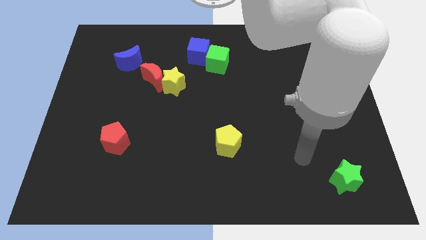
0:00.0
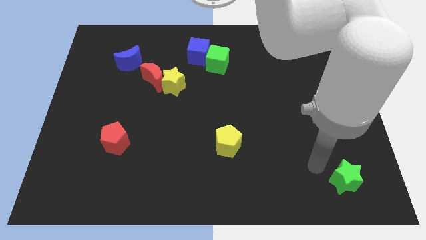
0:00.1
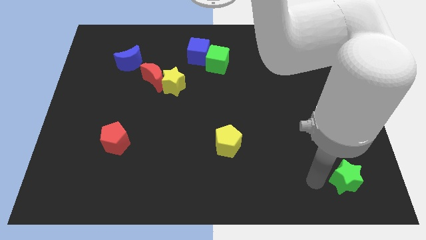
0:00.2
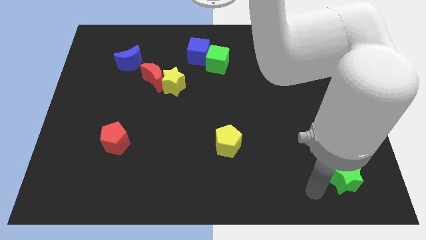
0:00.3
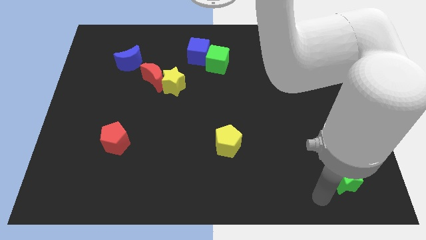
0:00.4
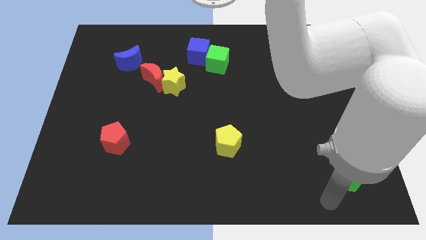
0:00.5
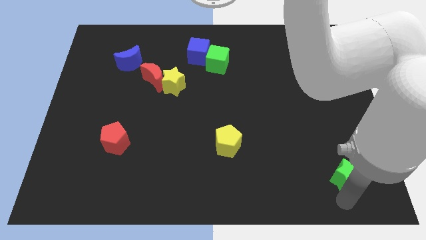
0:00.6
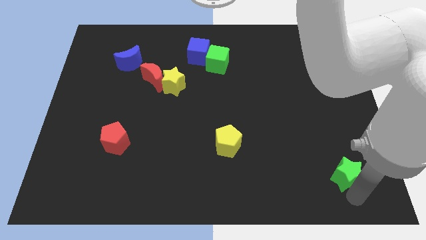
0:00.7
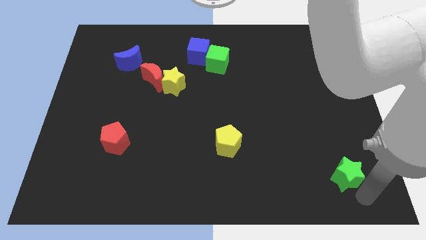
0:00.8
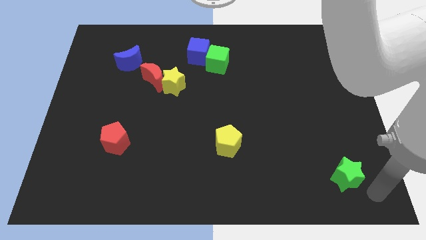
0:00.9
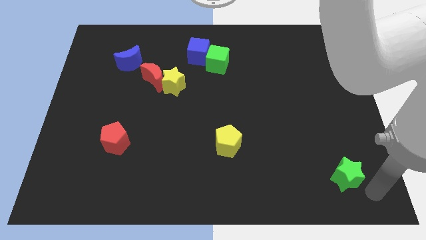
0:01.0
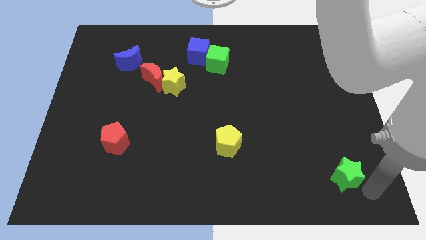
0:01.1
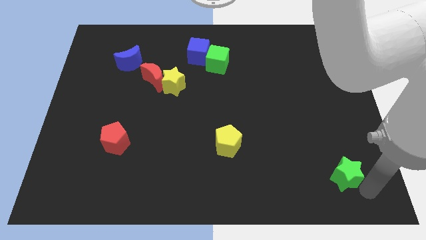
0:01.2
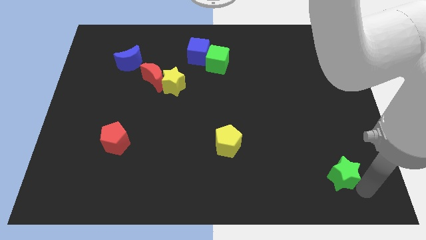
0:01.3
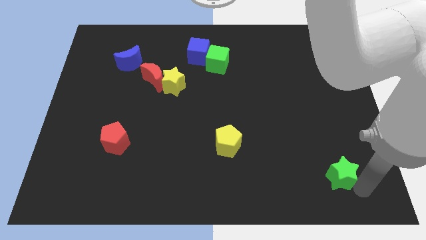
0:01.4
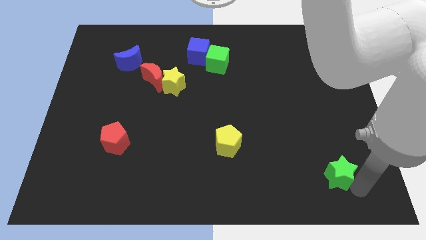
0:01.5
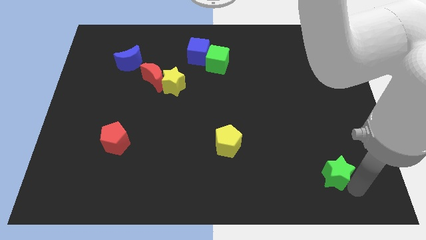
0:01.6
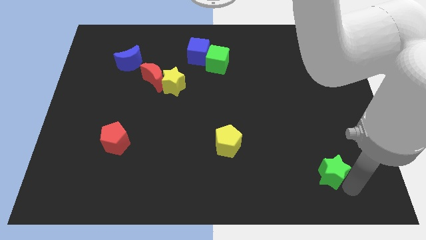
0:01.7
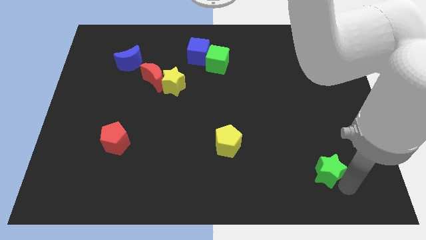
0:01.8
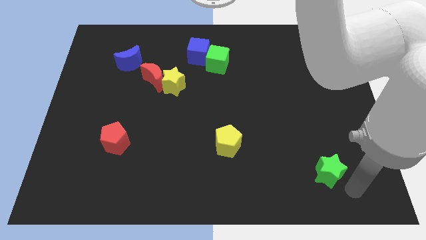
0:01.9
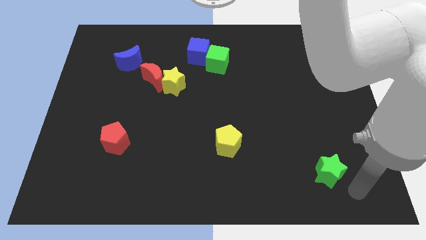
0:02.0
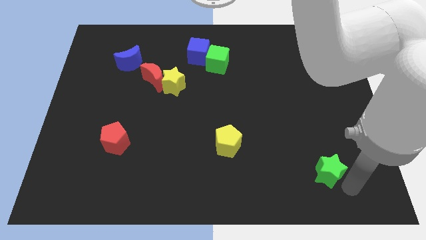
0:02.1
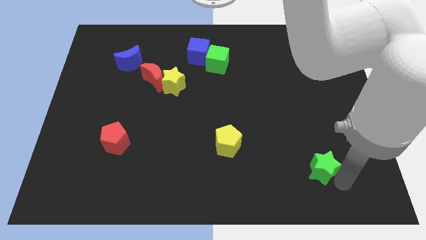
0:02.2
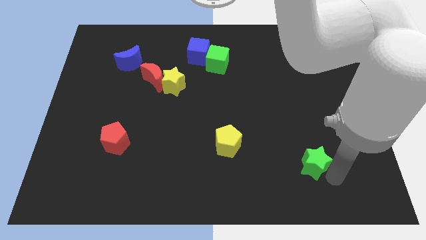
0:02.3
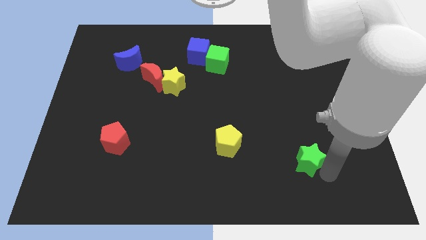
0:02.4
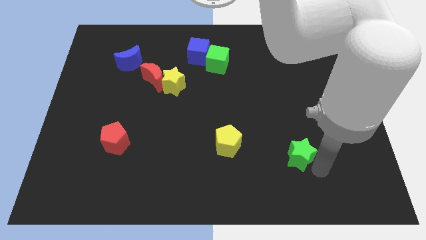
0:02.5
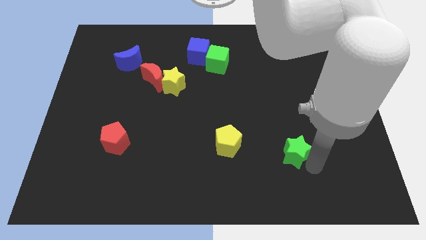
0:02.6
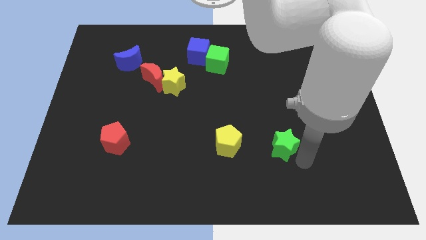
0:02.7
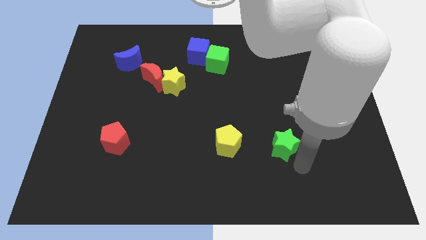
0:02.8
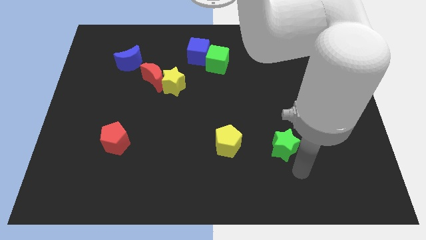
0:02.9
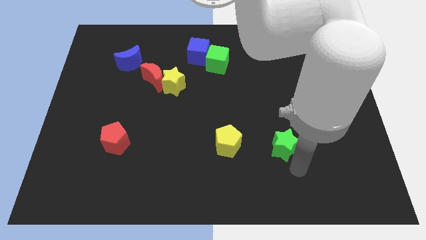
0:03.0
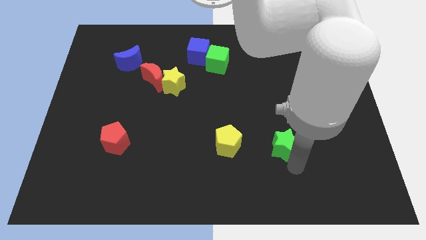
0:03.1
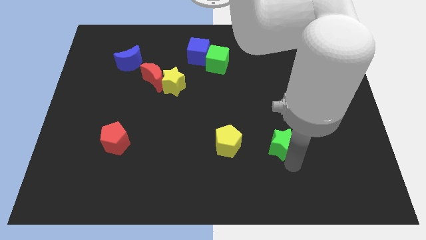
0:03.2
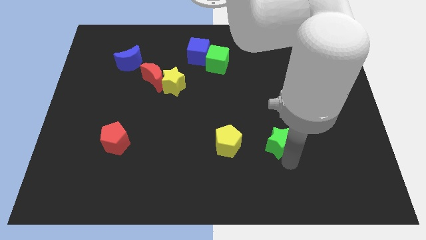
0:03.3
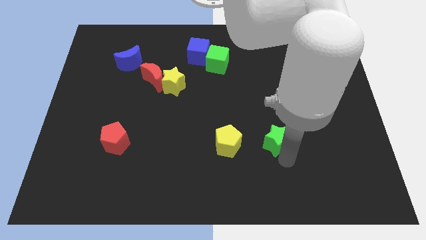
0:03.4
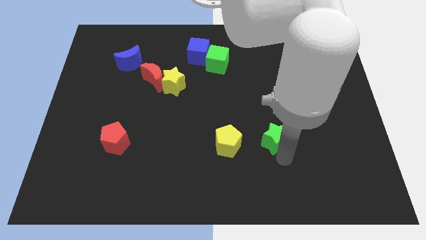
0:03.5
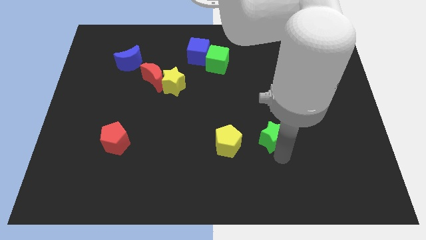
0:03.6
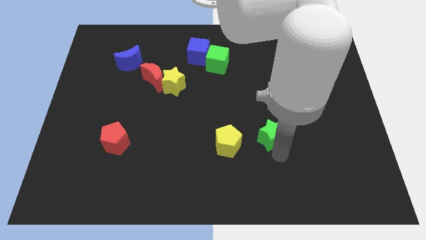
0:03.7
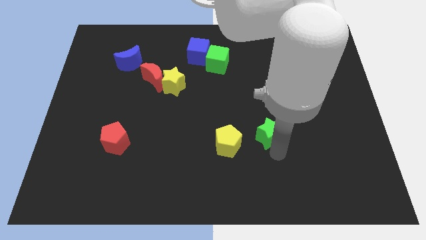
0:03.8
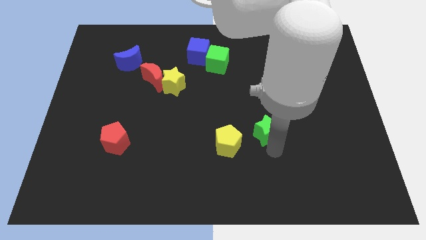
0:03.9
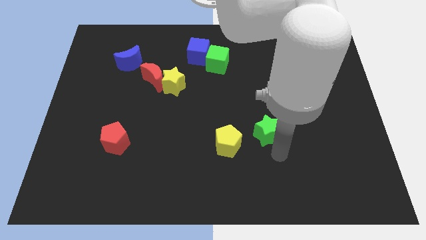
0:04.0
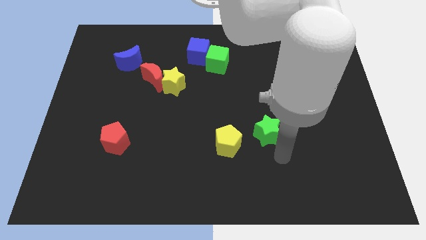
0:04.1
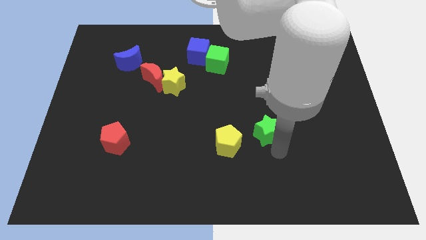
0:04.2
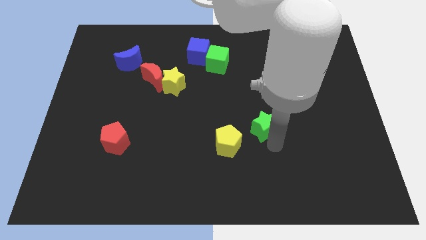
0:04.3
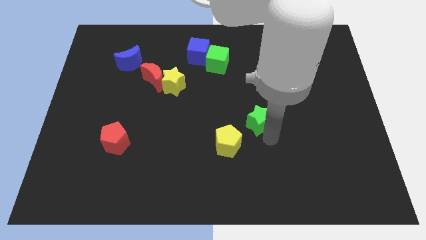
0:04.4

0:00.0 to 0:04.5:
slide the green star diagonally up and left

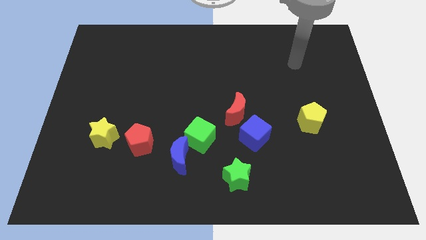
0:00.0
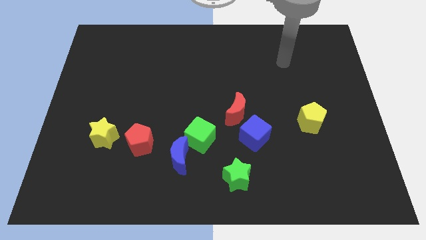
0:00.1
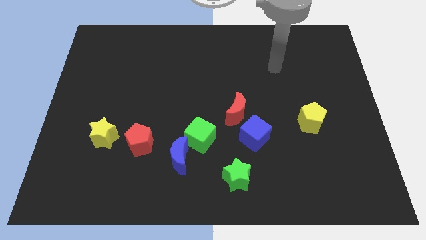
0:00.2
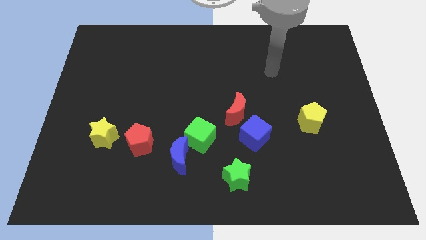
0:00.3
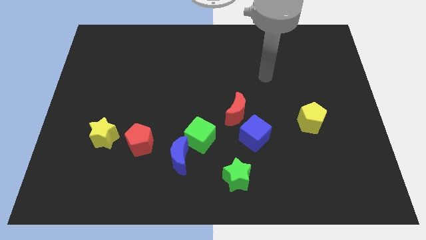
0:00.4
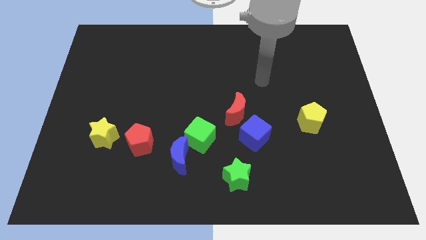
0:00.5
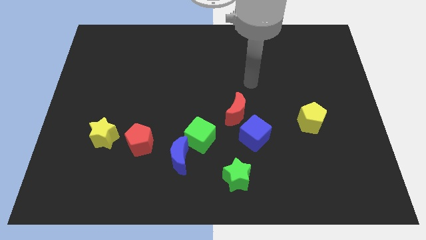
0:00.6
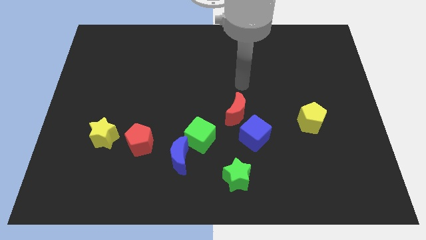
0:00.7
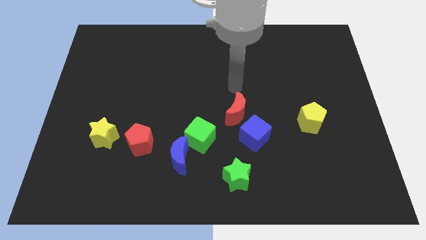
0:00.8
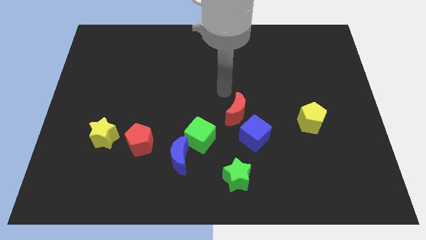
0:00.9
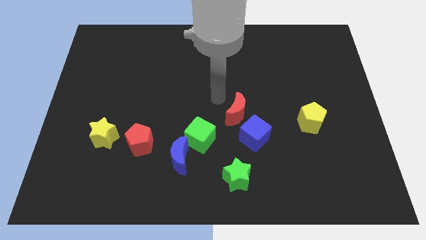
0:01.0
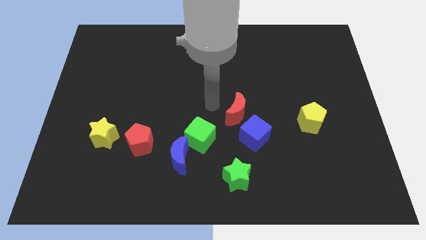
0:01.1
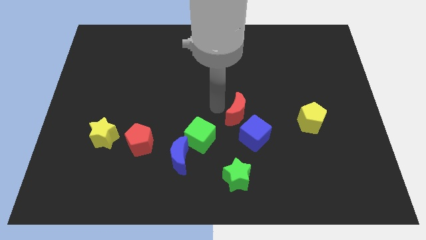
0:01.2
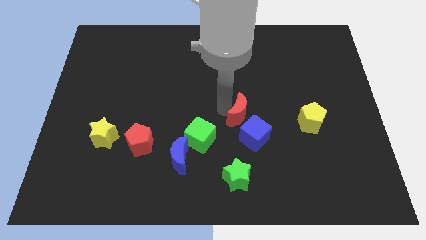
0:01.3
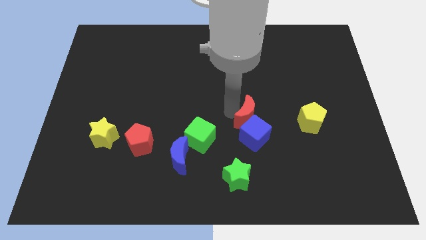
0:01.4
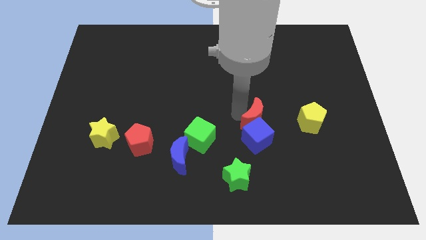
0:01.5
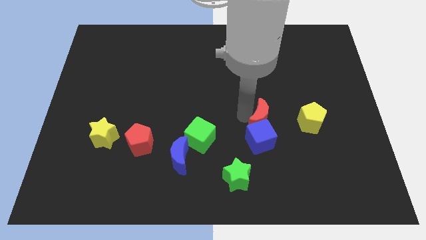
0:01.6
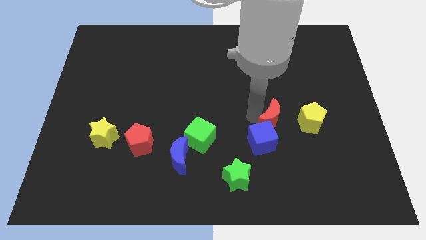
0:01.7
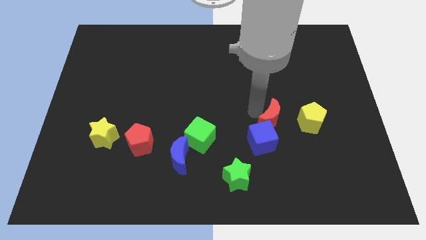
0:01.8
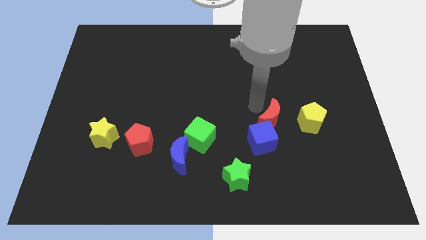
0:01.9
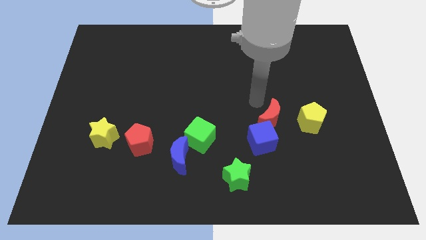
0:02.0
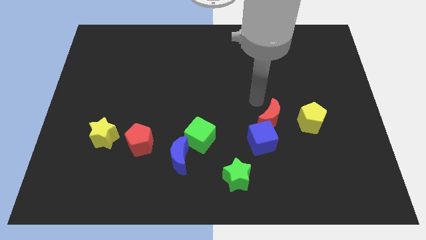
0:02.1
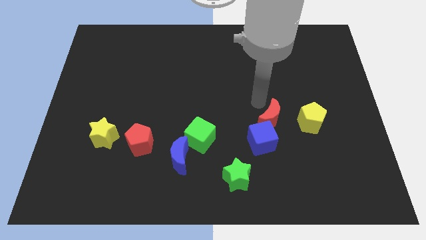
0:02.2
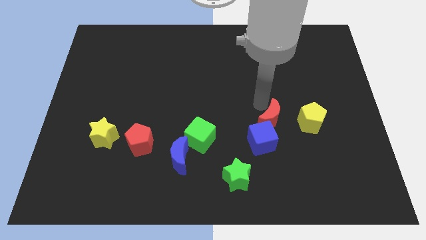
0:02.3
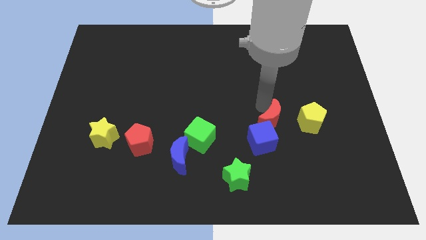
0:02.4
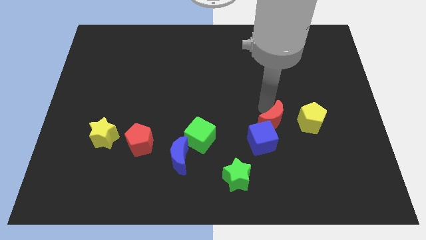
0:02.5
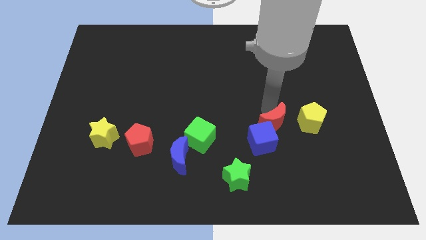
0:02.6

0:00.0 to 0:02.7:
slide the red moon a little downwards and right diagonally

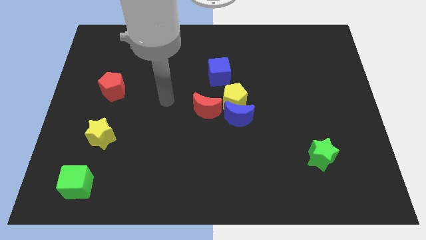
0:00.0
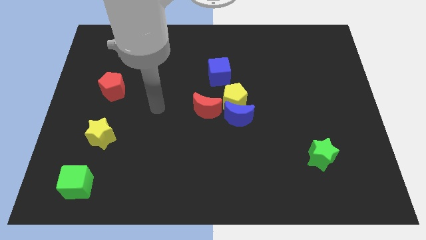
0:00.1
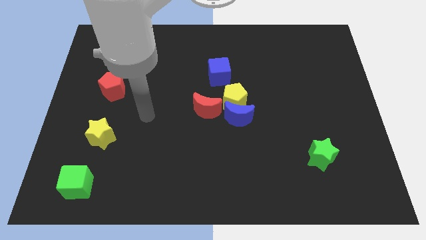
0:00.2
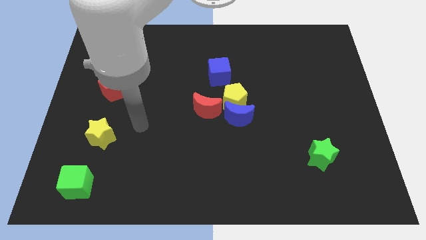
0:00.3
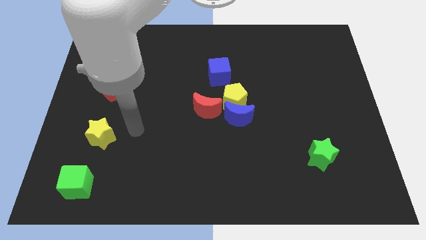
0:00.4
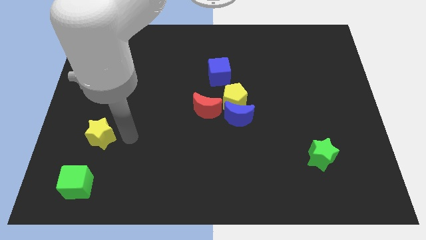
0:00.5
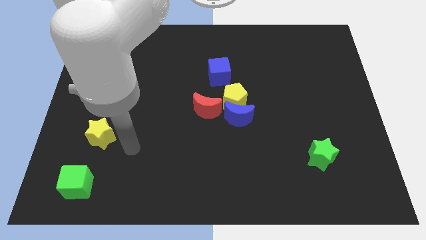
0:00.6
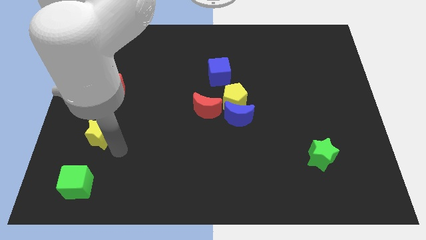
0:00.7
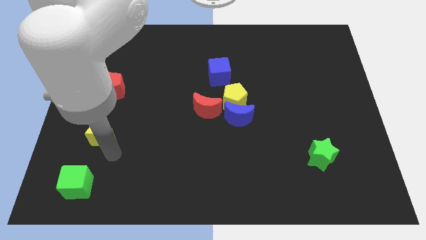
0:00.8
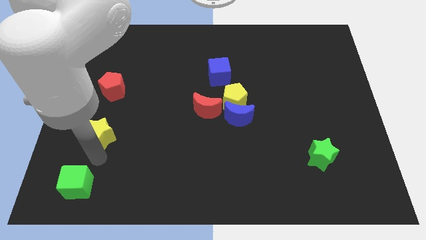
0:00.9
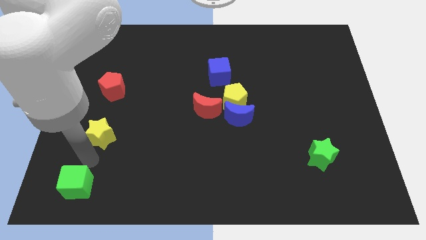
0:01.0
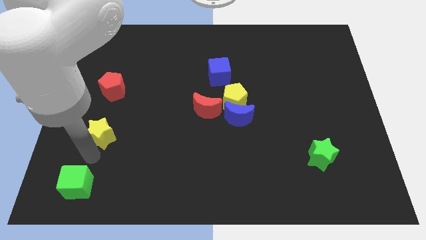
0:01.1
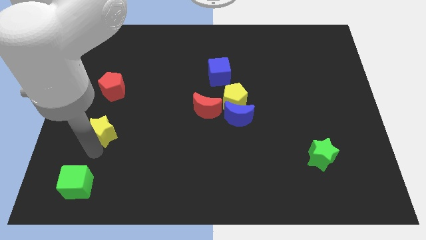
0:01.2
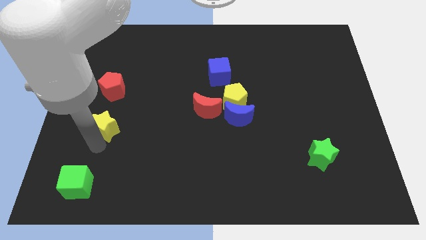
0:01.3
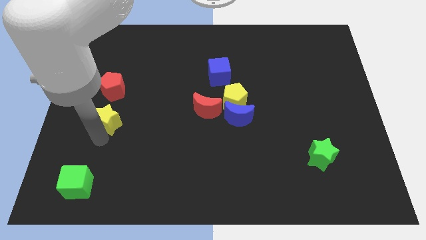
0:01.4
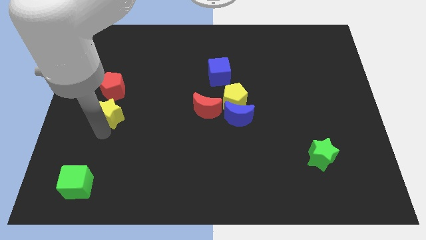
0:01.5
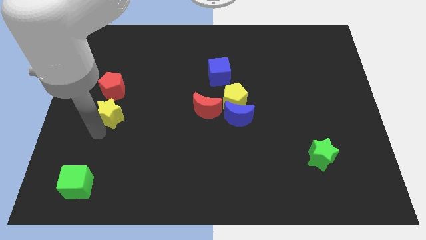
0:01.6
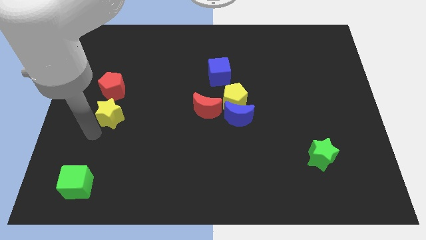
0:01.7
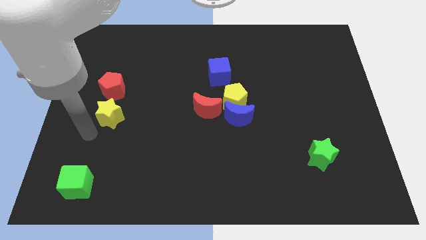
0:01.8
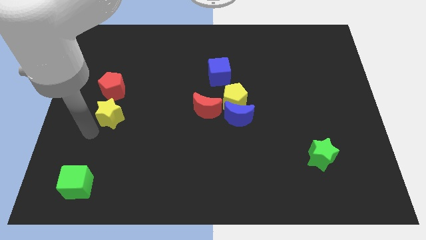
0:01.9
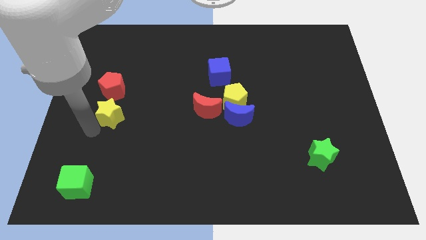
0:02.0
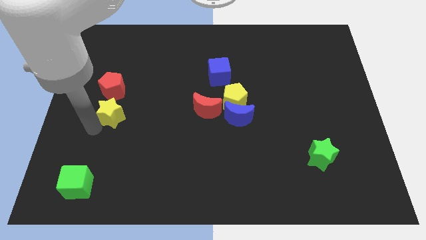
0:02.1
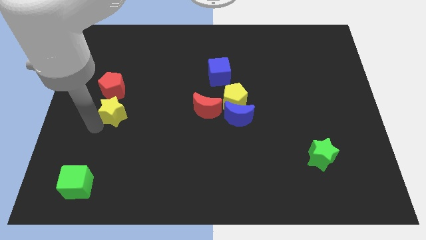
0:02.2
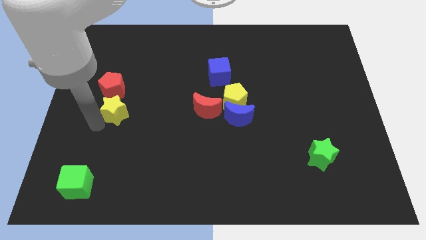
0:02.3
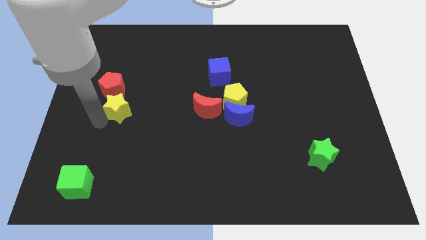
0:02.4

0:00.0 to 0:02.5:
push the yellow star upwards a little
